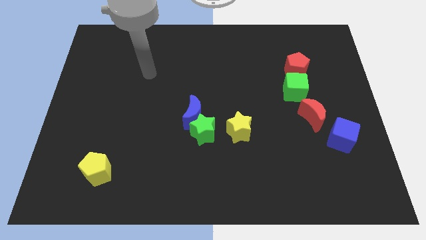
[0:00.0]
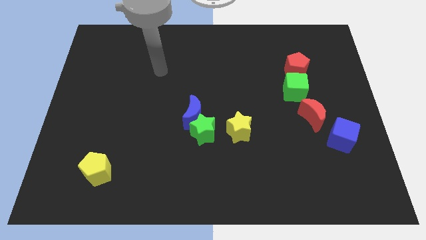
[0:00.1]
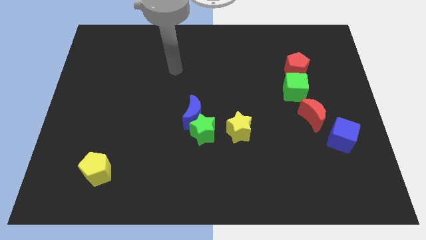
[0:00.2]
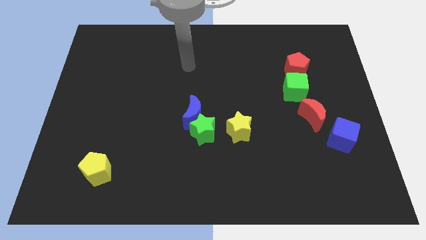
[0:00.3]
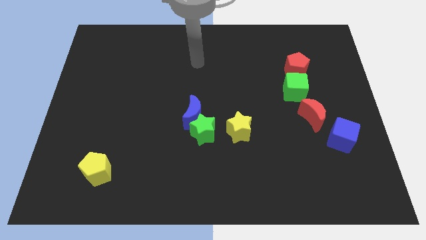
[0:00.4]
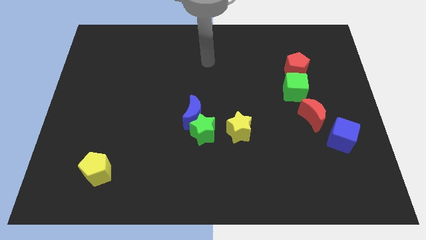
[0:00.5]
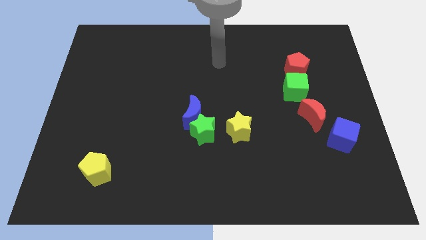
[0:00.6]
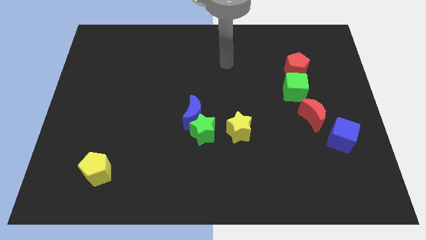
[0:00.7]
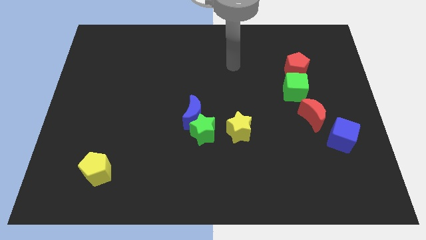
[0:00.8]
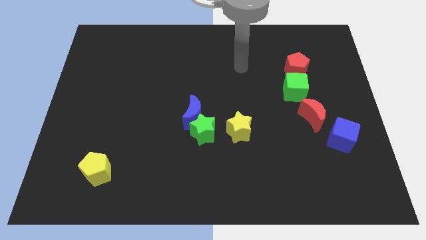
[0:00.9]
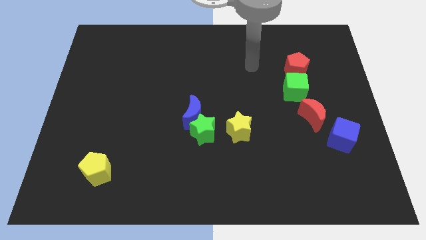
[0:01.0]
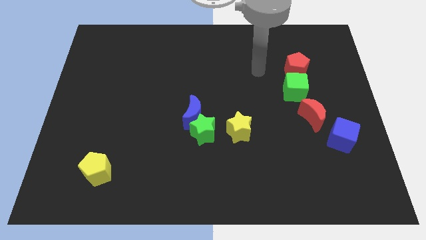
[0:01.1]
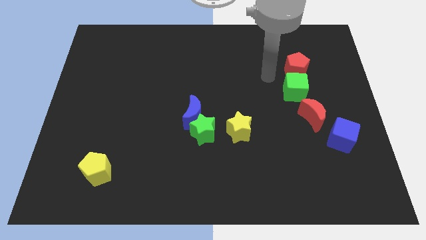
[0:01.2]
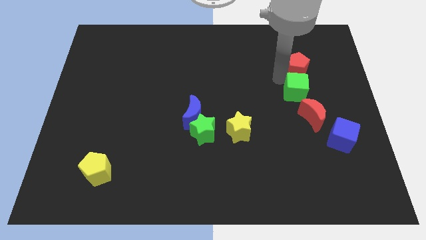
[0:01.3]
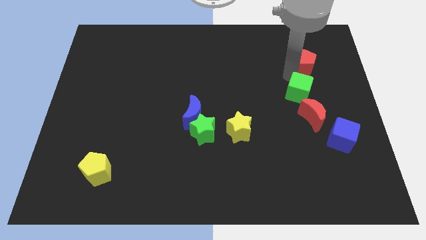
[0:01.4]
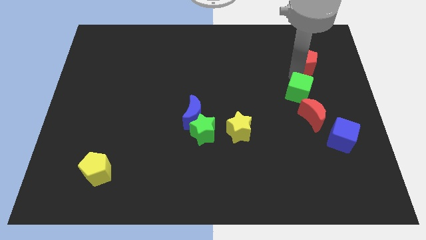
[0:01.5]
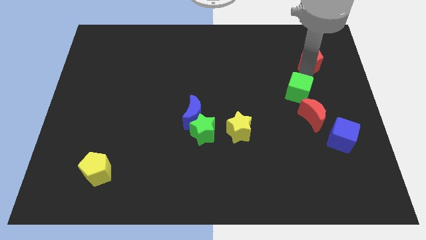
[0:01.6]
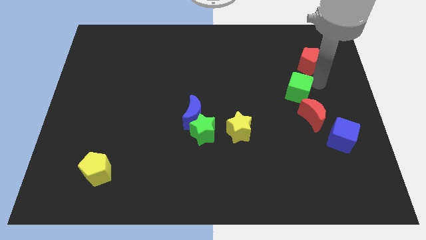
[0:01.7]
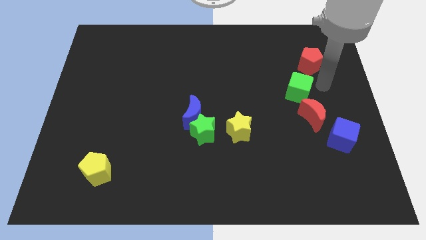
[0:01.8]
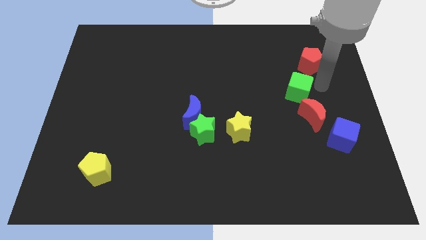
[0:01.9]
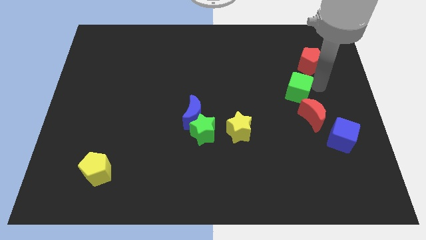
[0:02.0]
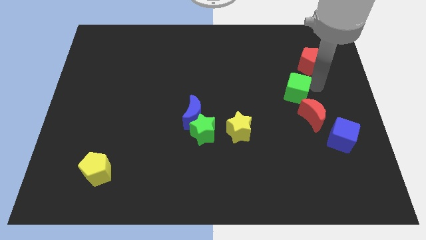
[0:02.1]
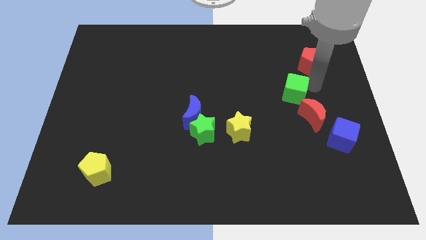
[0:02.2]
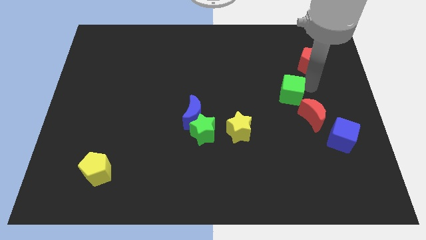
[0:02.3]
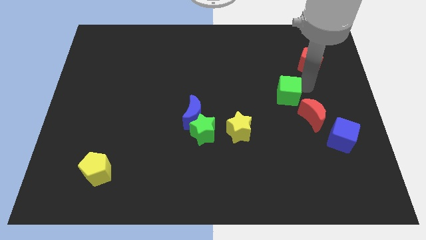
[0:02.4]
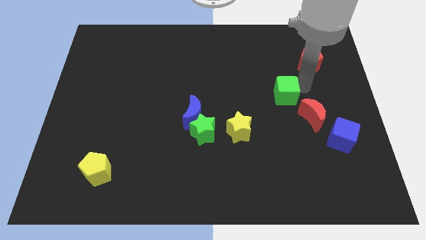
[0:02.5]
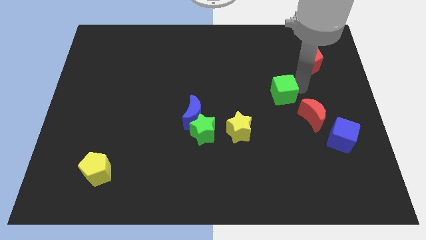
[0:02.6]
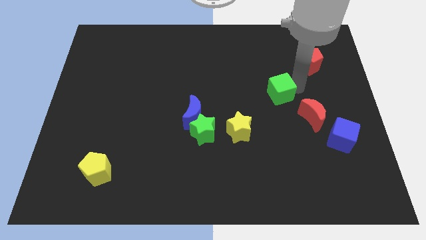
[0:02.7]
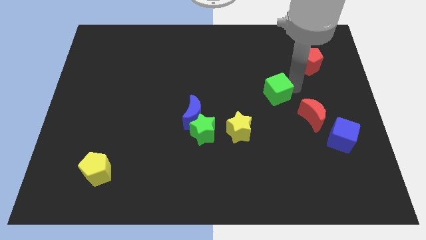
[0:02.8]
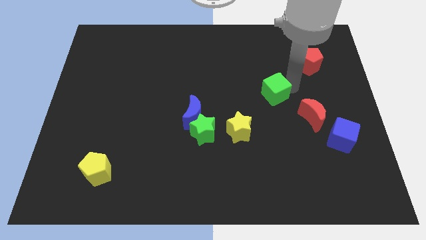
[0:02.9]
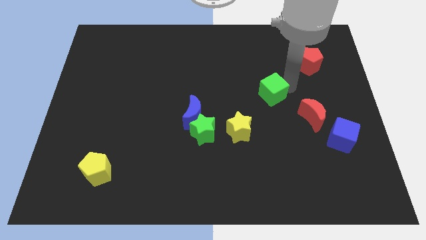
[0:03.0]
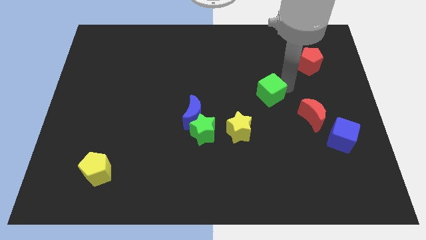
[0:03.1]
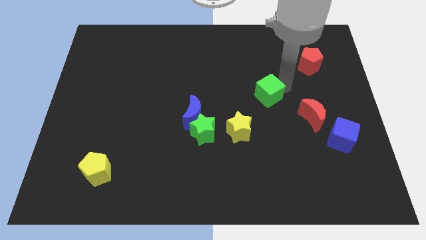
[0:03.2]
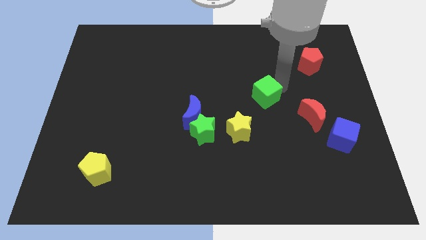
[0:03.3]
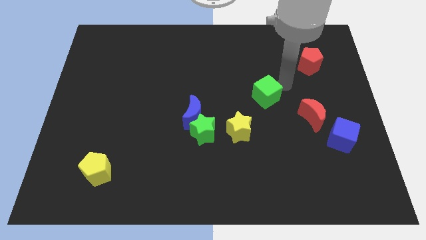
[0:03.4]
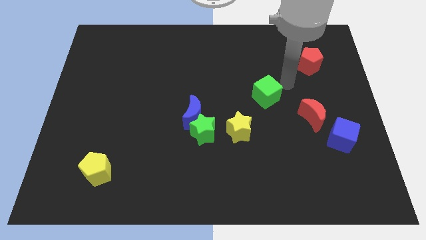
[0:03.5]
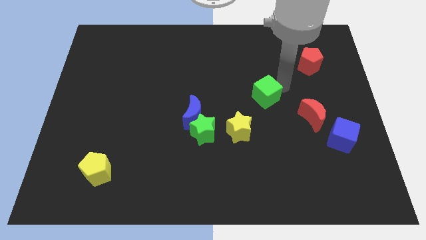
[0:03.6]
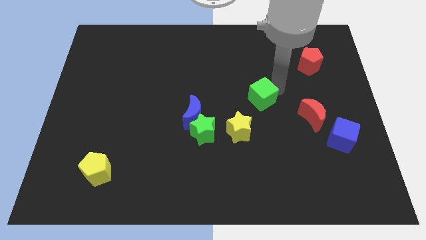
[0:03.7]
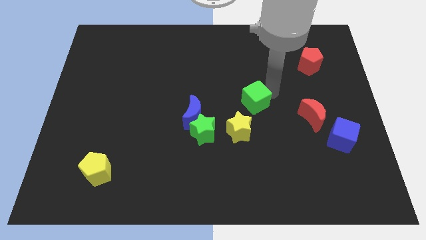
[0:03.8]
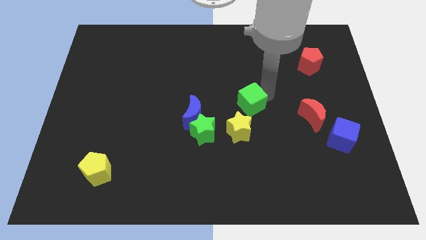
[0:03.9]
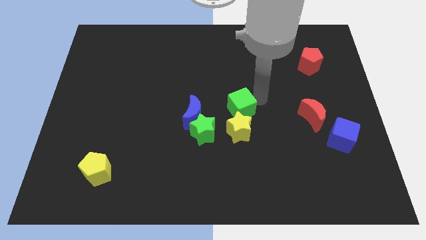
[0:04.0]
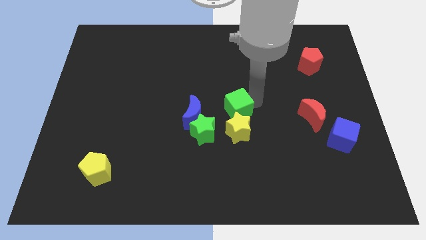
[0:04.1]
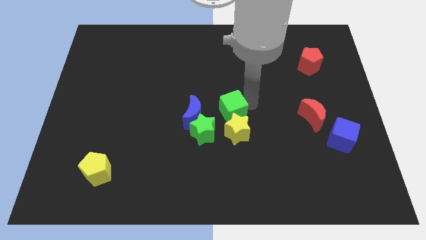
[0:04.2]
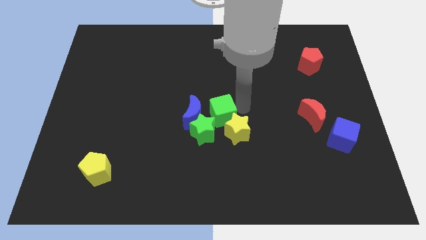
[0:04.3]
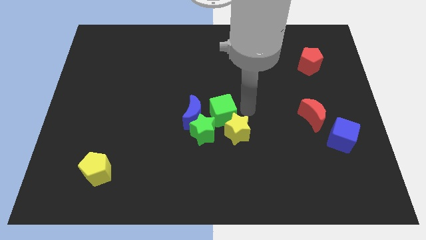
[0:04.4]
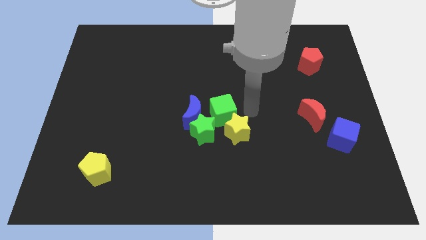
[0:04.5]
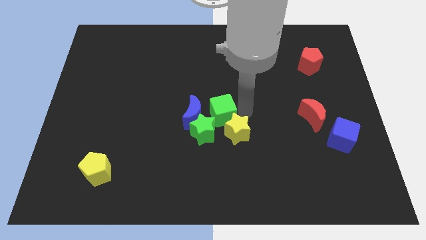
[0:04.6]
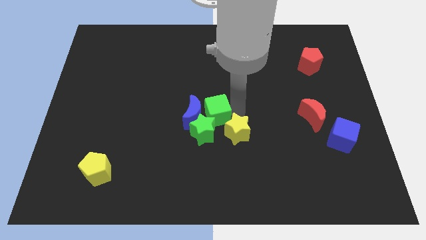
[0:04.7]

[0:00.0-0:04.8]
push the green cube to the blue moon

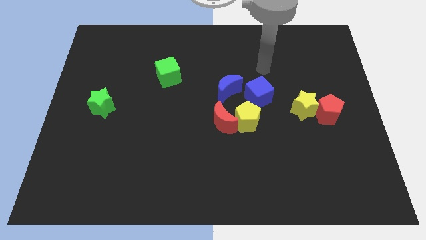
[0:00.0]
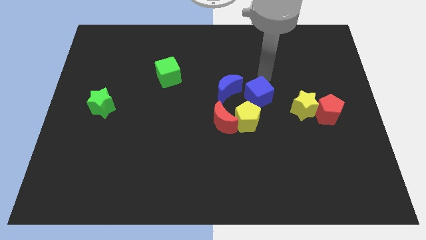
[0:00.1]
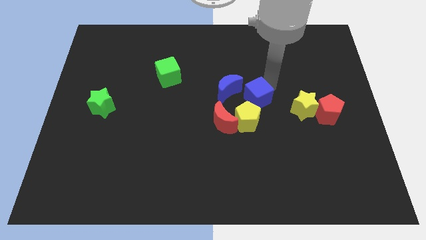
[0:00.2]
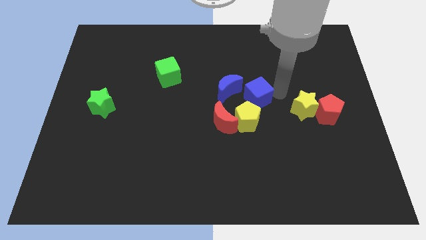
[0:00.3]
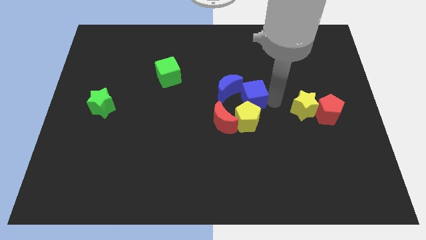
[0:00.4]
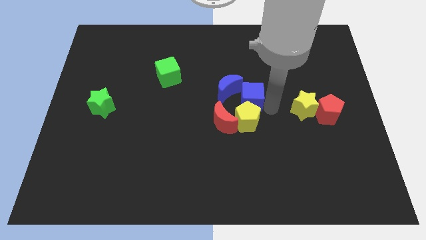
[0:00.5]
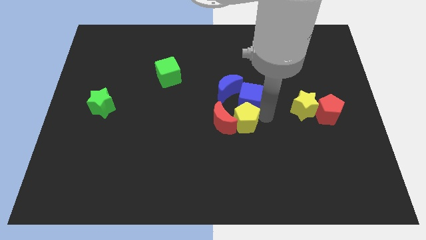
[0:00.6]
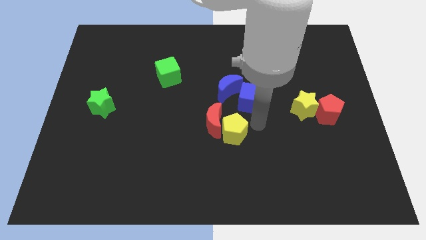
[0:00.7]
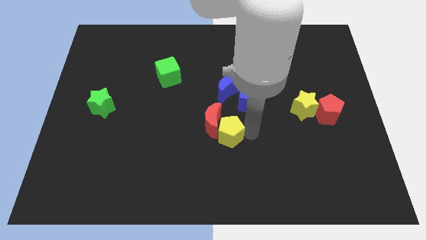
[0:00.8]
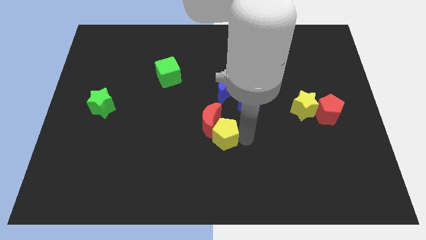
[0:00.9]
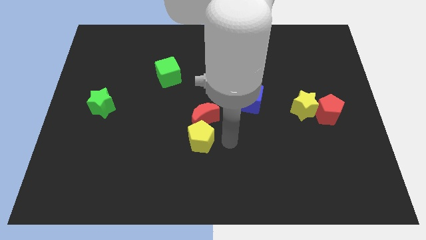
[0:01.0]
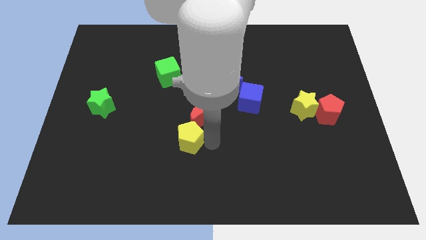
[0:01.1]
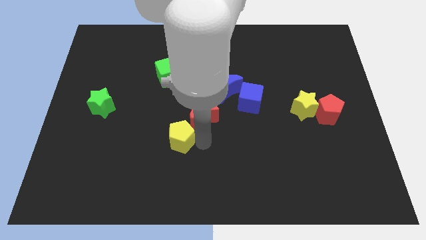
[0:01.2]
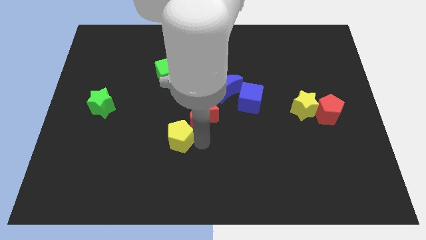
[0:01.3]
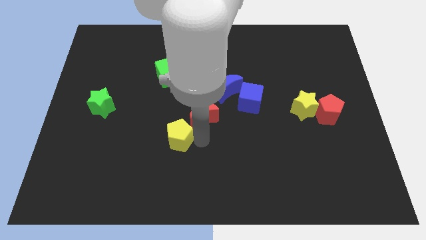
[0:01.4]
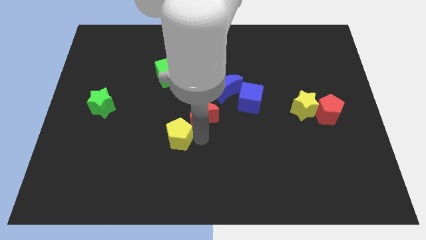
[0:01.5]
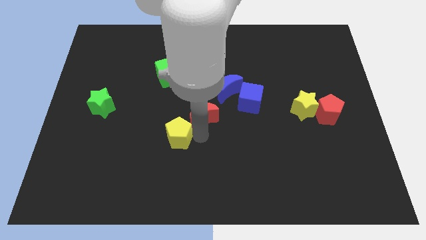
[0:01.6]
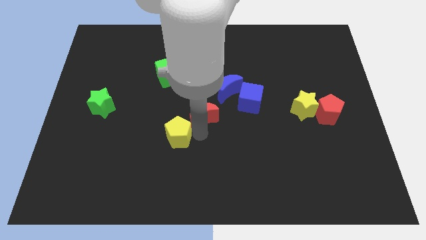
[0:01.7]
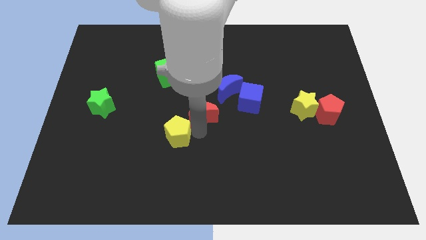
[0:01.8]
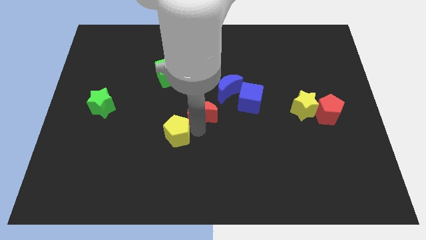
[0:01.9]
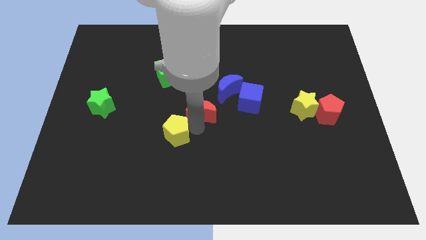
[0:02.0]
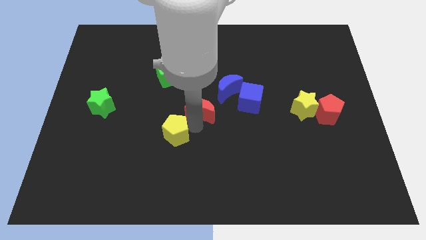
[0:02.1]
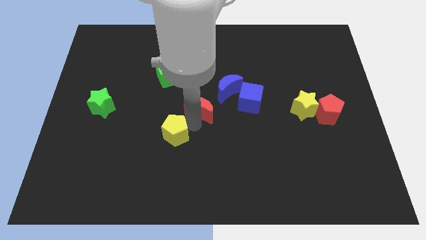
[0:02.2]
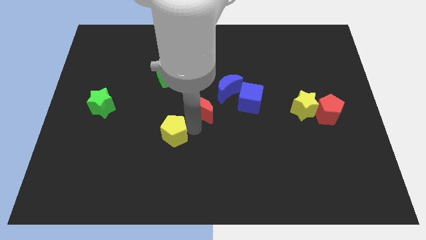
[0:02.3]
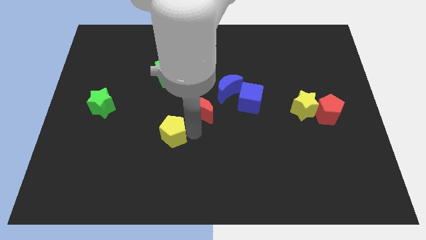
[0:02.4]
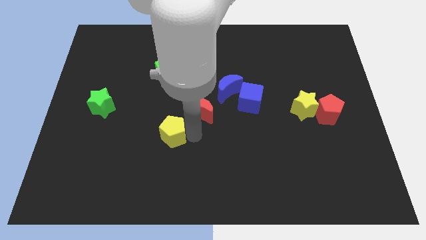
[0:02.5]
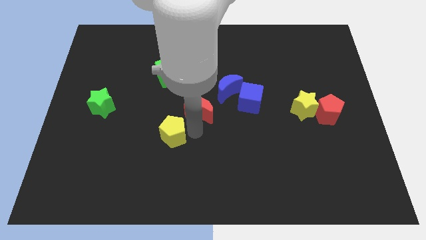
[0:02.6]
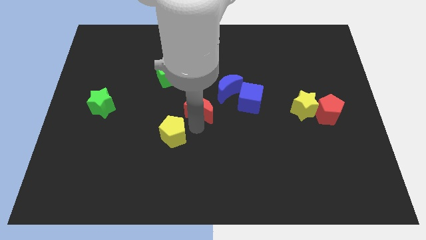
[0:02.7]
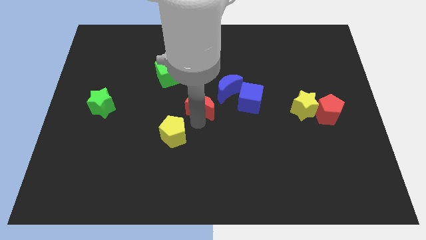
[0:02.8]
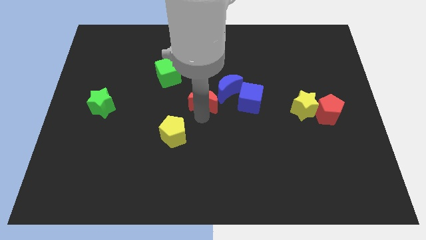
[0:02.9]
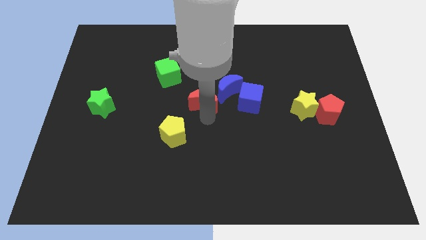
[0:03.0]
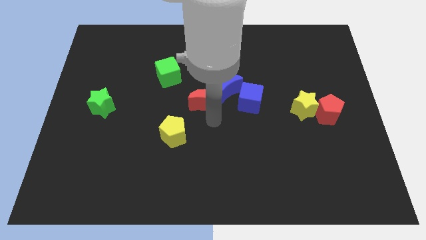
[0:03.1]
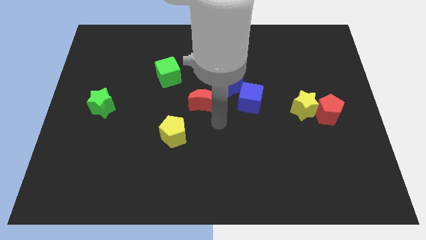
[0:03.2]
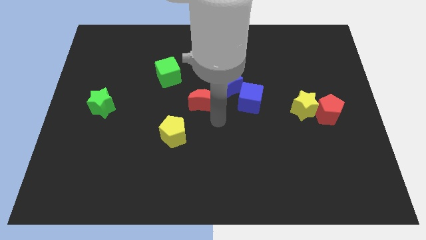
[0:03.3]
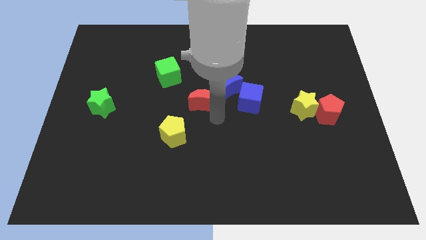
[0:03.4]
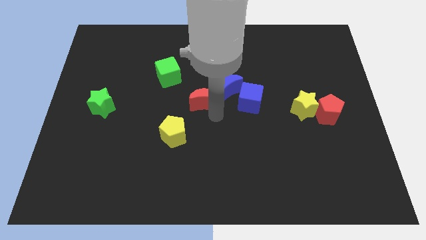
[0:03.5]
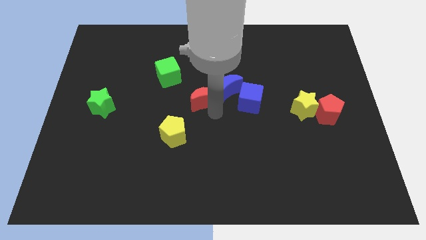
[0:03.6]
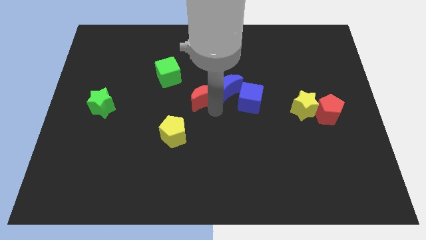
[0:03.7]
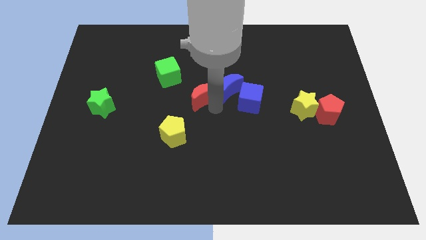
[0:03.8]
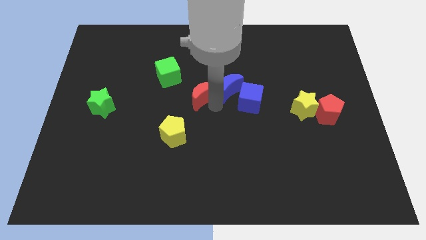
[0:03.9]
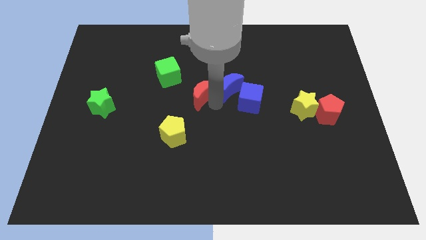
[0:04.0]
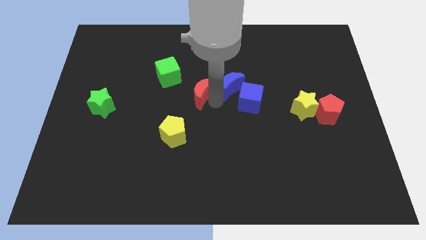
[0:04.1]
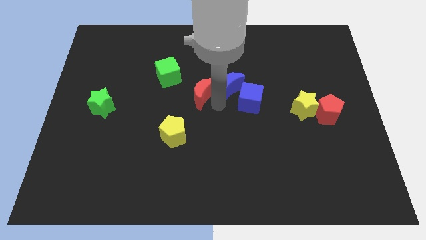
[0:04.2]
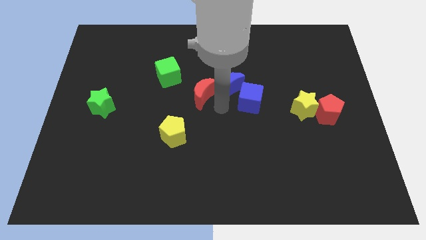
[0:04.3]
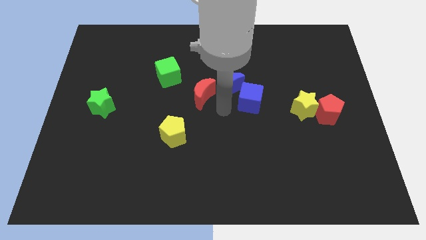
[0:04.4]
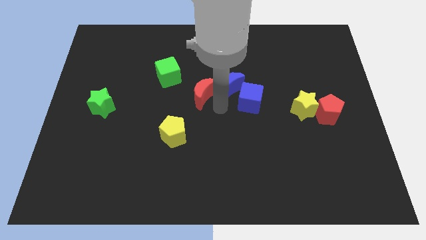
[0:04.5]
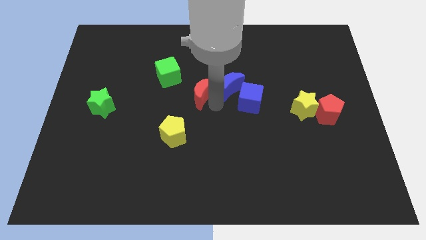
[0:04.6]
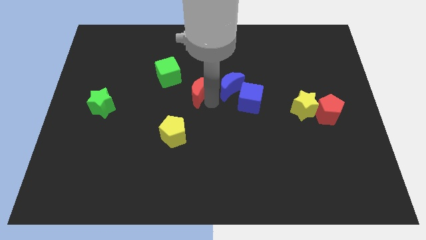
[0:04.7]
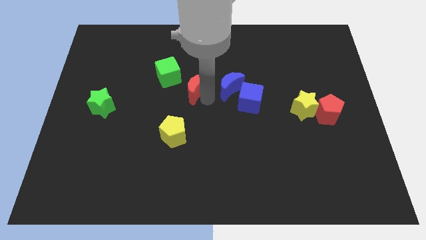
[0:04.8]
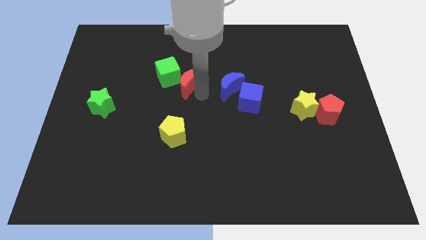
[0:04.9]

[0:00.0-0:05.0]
move the red moon towards the green cube
